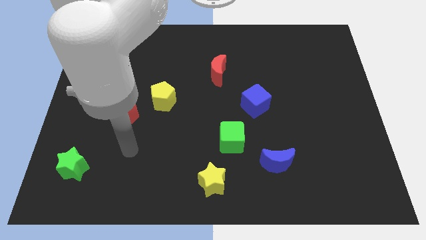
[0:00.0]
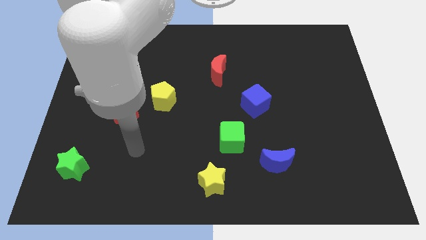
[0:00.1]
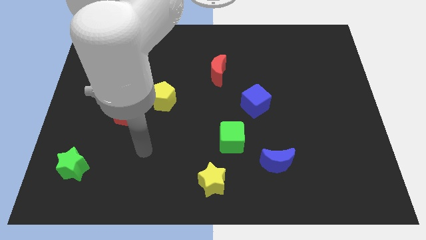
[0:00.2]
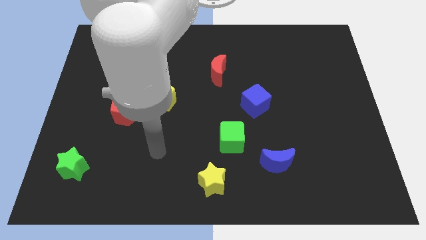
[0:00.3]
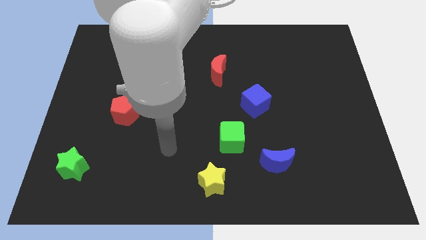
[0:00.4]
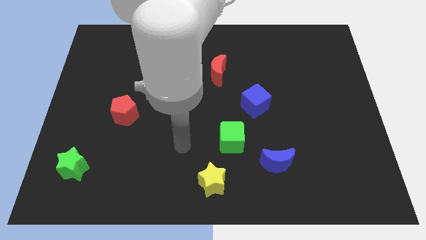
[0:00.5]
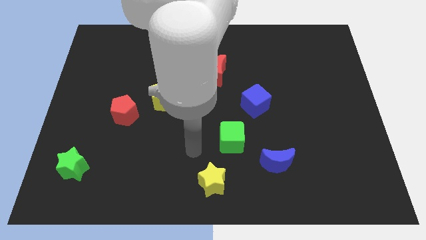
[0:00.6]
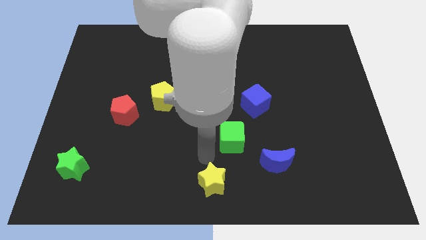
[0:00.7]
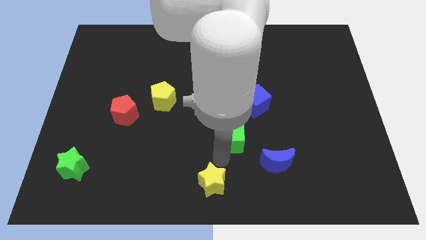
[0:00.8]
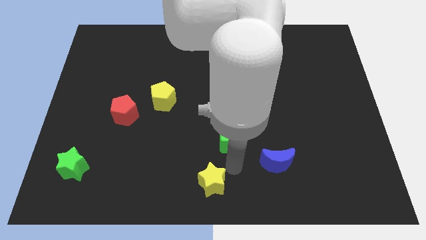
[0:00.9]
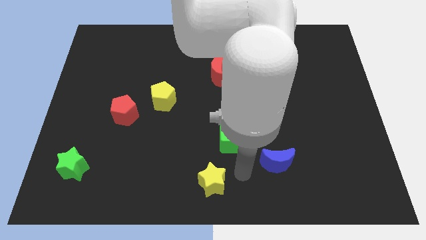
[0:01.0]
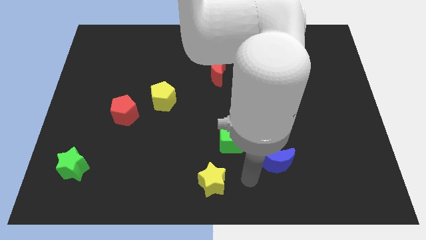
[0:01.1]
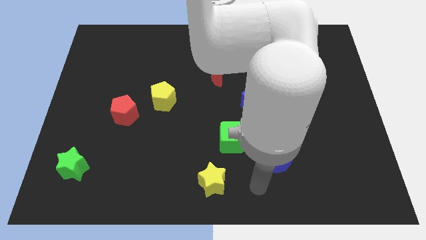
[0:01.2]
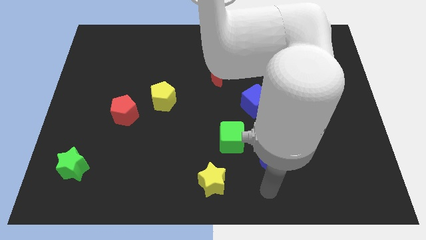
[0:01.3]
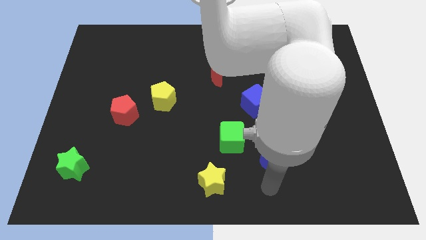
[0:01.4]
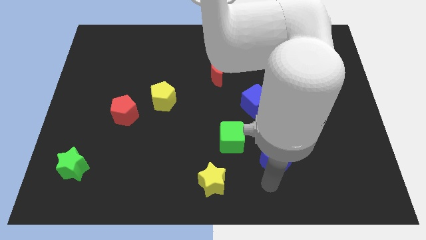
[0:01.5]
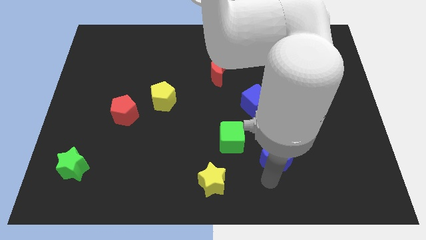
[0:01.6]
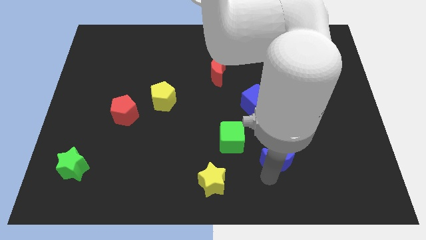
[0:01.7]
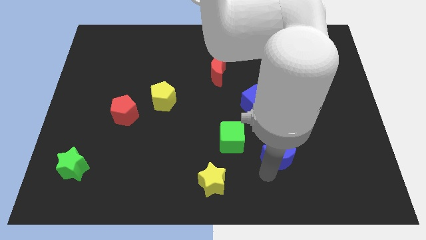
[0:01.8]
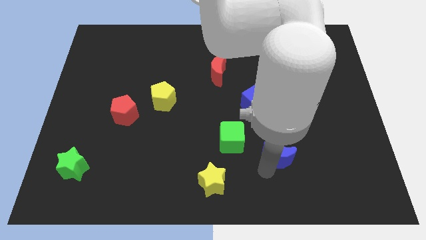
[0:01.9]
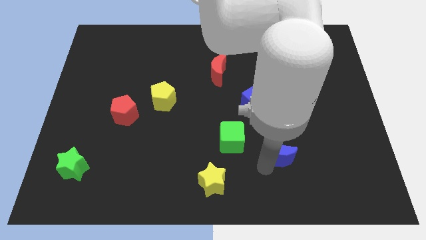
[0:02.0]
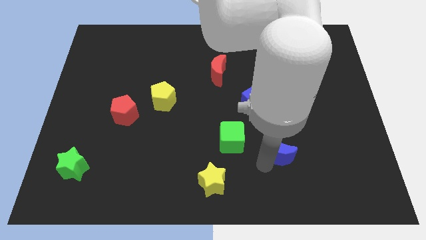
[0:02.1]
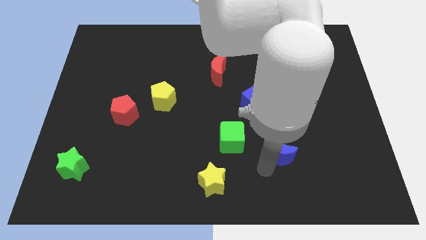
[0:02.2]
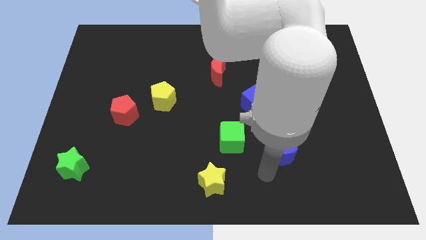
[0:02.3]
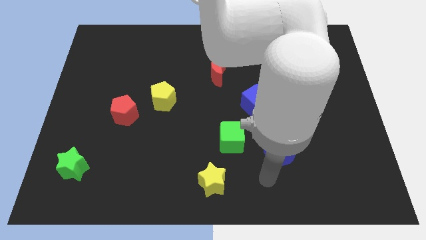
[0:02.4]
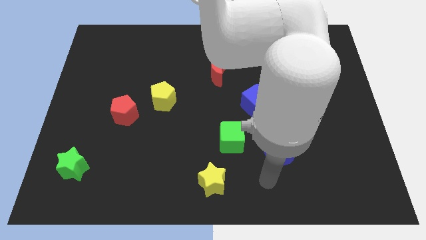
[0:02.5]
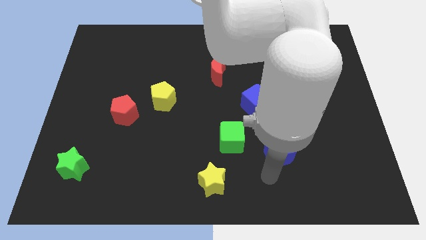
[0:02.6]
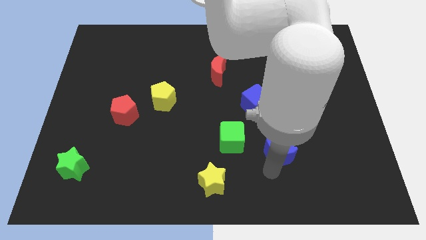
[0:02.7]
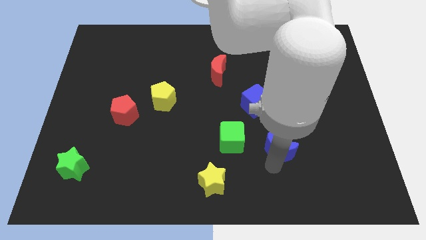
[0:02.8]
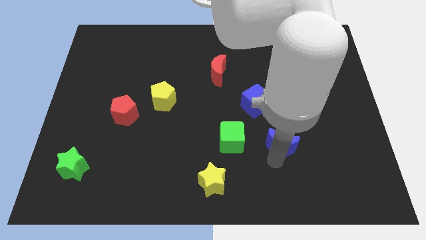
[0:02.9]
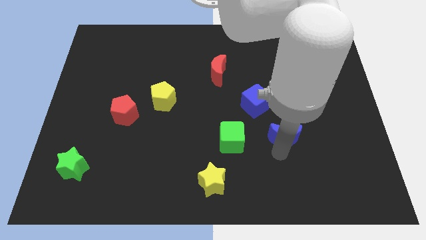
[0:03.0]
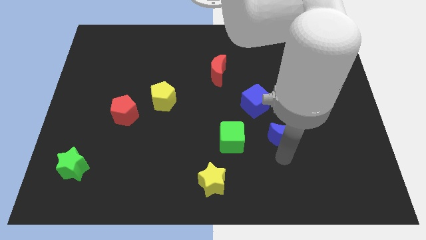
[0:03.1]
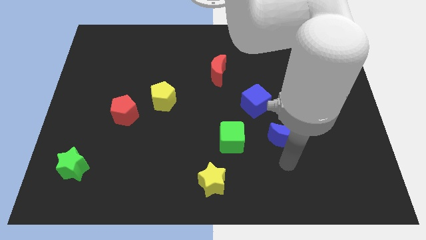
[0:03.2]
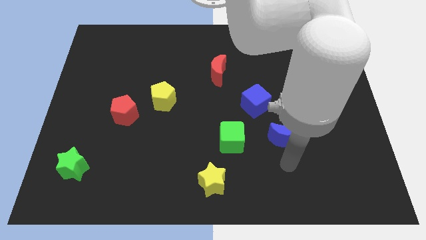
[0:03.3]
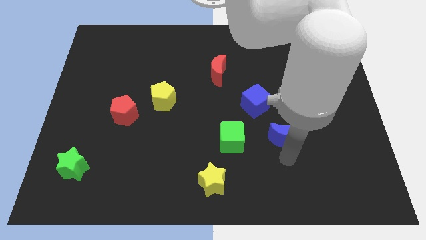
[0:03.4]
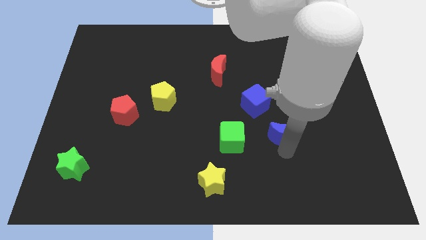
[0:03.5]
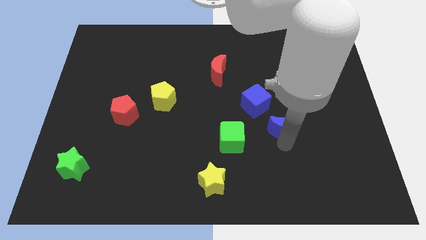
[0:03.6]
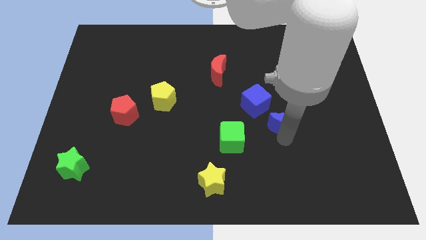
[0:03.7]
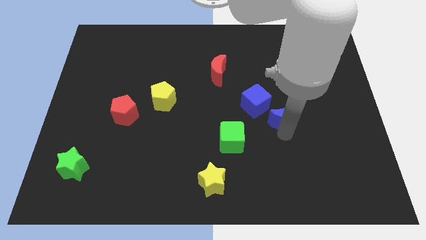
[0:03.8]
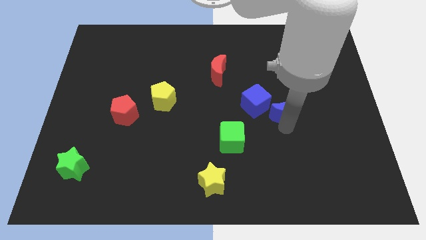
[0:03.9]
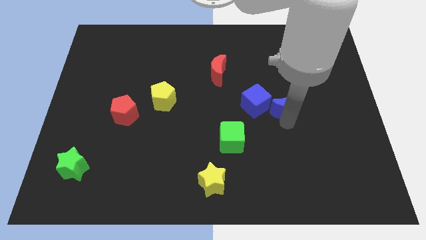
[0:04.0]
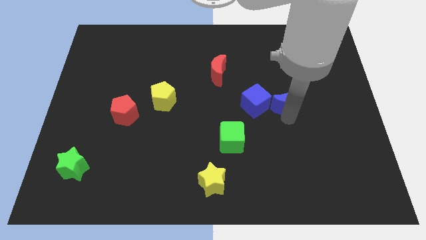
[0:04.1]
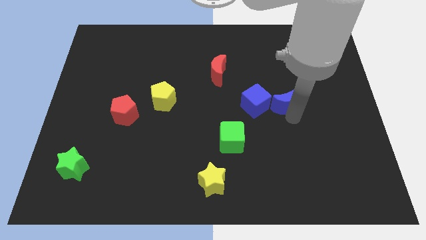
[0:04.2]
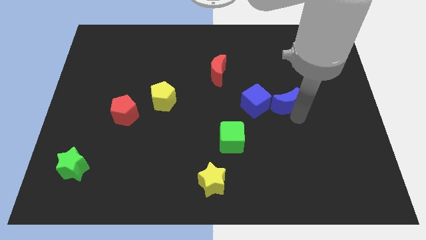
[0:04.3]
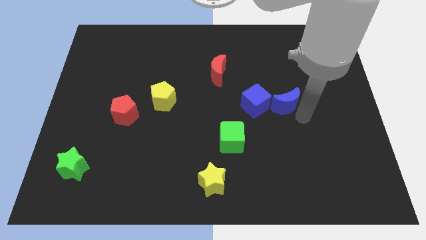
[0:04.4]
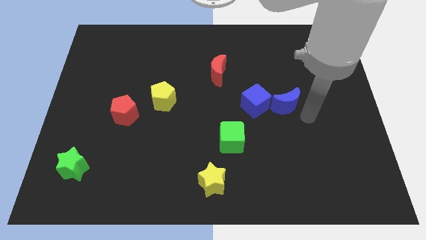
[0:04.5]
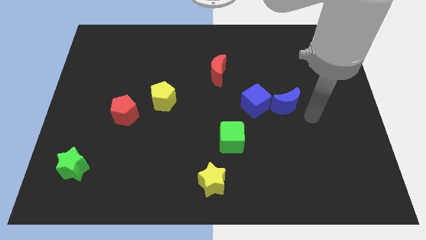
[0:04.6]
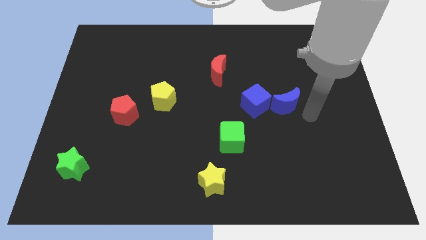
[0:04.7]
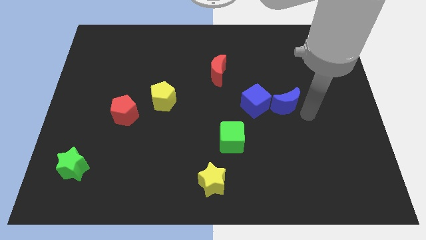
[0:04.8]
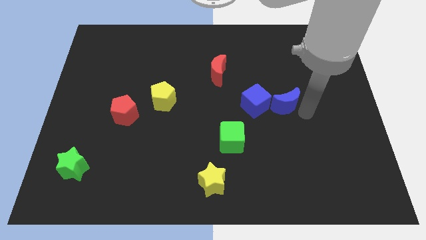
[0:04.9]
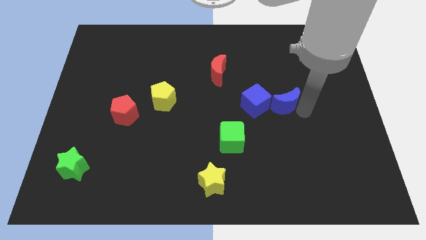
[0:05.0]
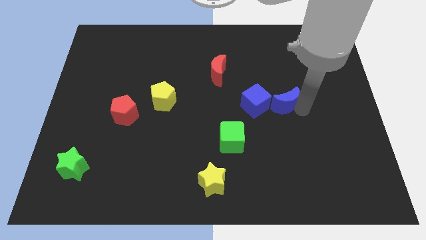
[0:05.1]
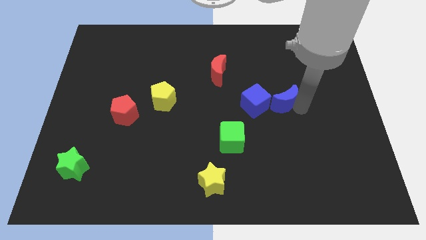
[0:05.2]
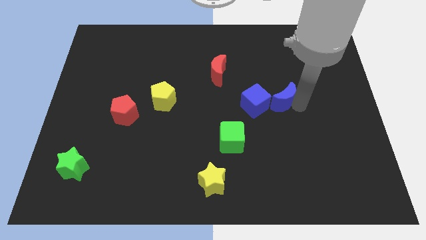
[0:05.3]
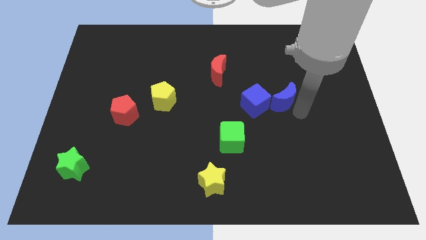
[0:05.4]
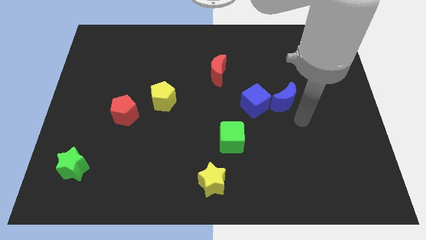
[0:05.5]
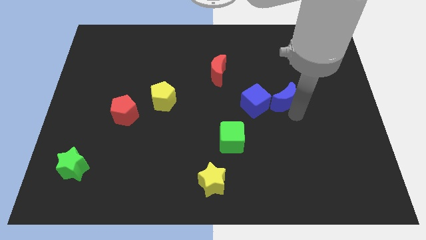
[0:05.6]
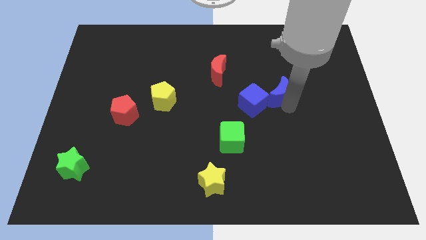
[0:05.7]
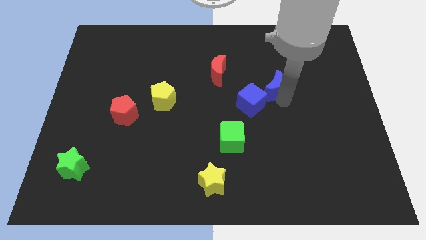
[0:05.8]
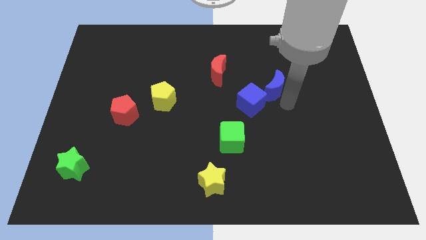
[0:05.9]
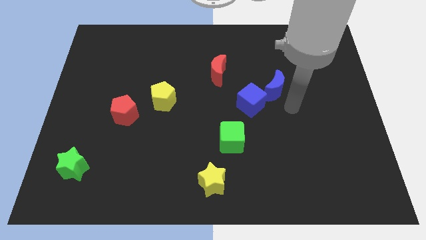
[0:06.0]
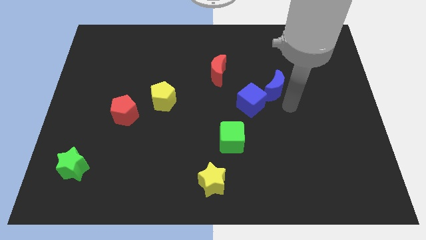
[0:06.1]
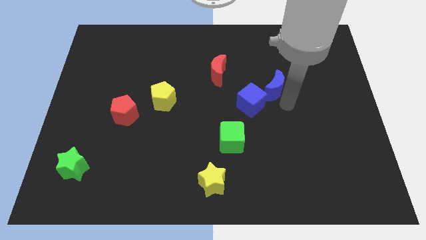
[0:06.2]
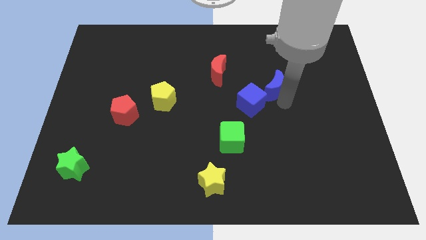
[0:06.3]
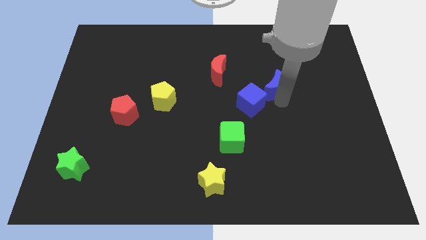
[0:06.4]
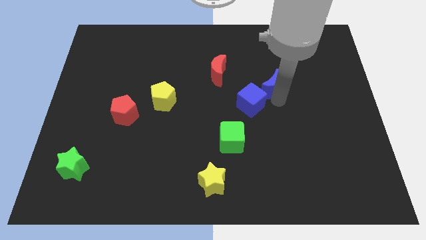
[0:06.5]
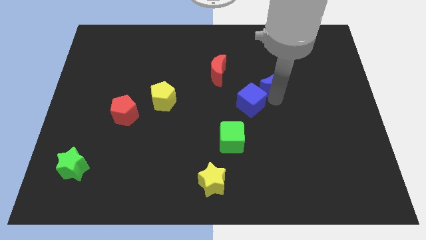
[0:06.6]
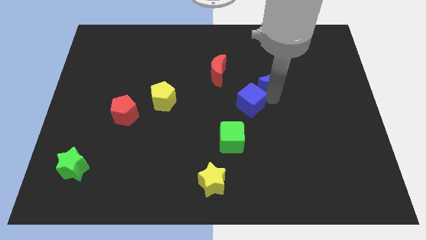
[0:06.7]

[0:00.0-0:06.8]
put the blue moon to the right side of the red moon
